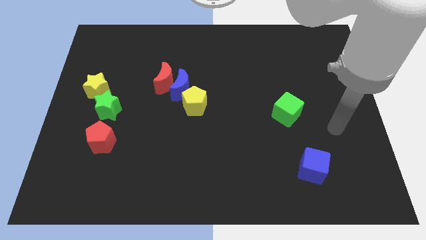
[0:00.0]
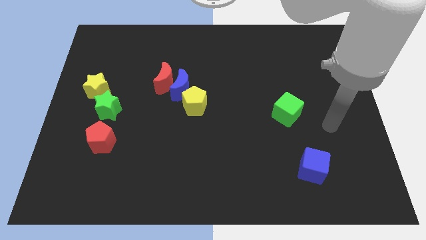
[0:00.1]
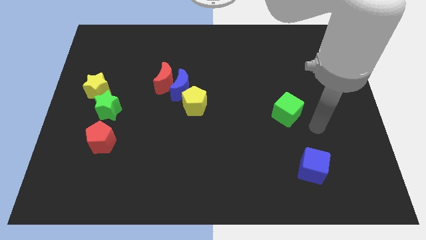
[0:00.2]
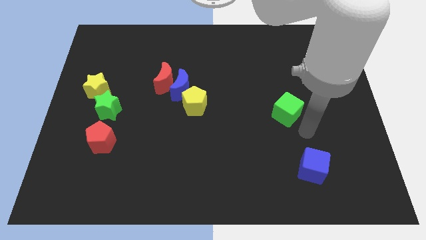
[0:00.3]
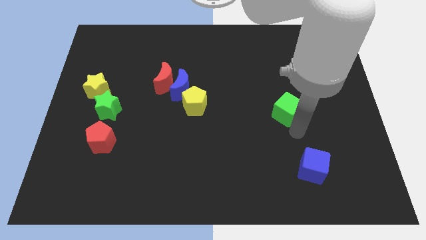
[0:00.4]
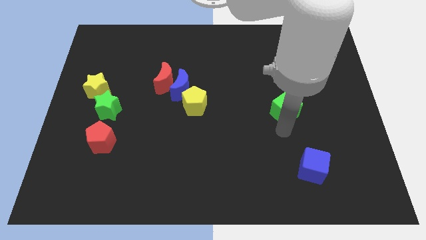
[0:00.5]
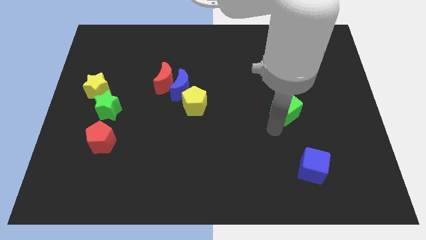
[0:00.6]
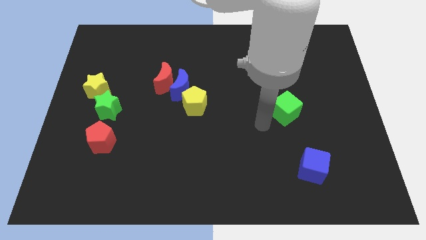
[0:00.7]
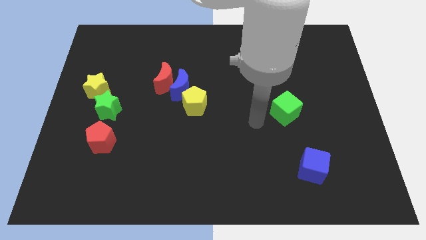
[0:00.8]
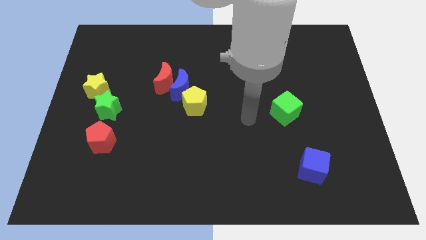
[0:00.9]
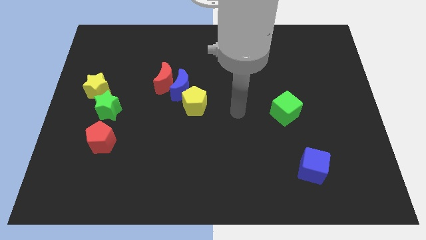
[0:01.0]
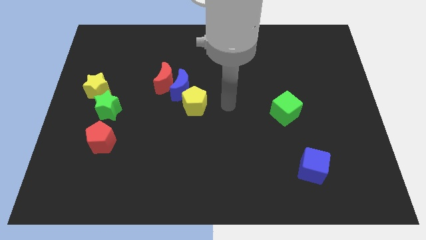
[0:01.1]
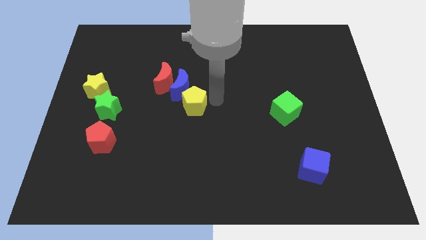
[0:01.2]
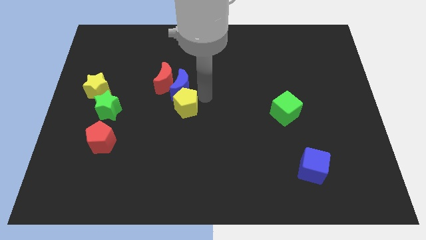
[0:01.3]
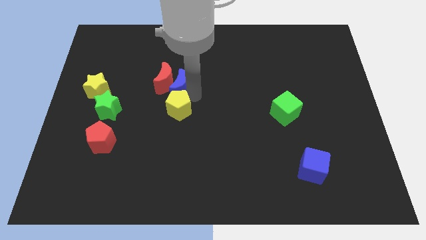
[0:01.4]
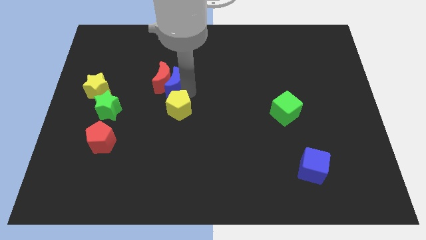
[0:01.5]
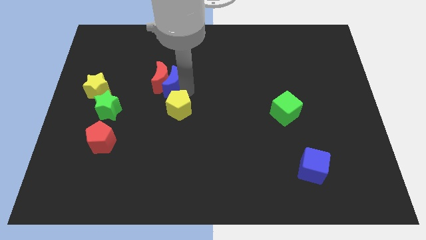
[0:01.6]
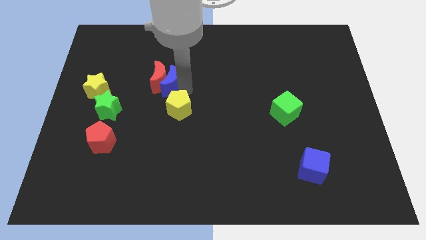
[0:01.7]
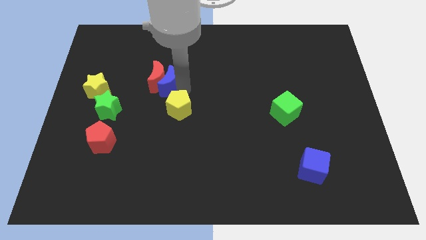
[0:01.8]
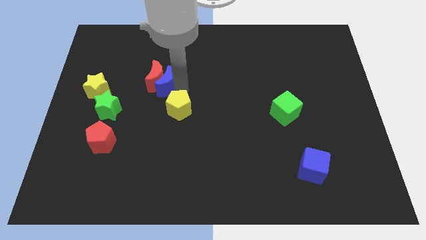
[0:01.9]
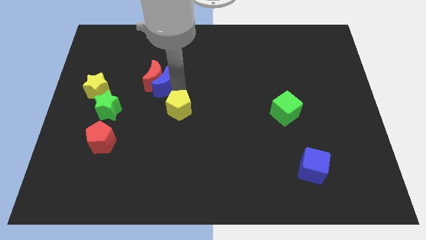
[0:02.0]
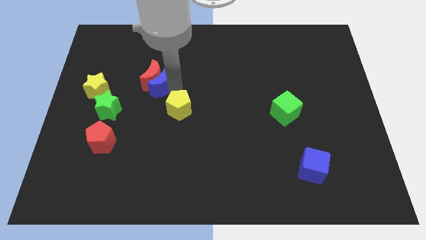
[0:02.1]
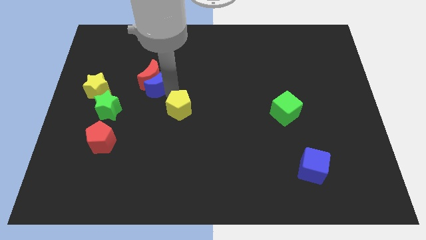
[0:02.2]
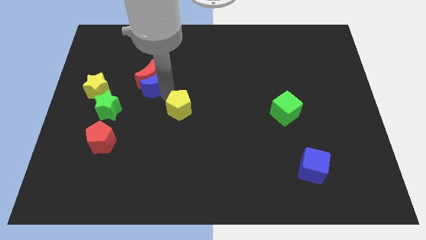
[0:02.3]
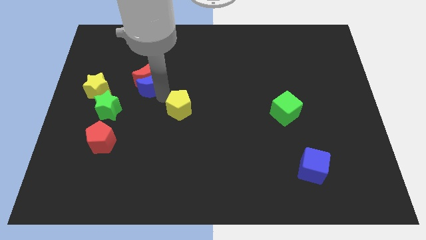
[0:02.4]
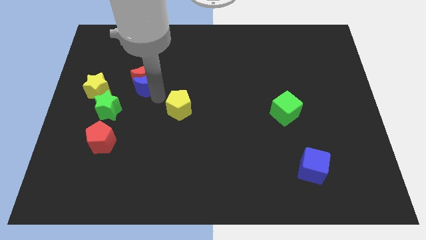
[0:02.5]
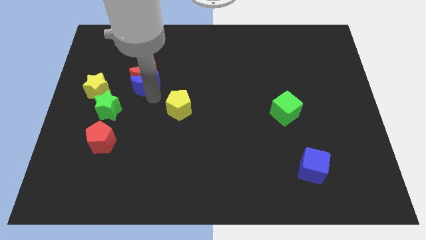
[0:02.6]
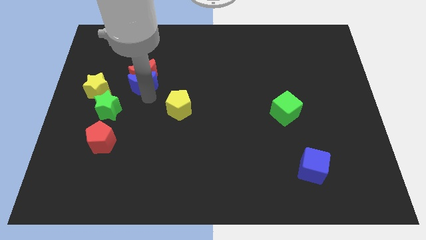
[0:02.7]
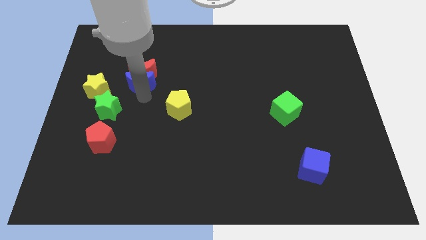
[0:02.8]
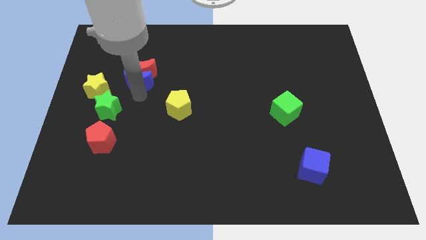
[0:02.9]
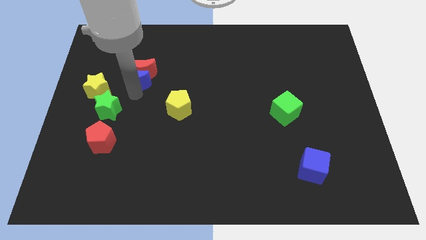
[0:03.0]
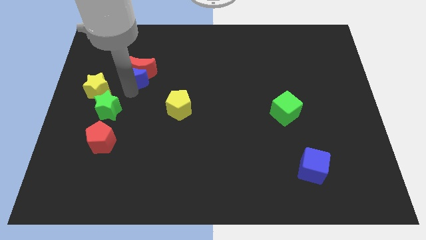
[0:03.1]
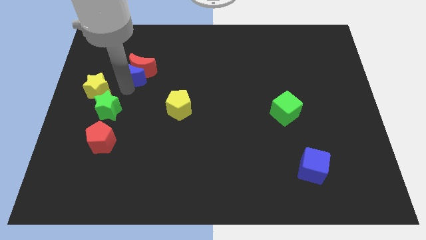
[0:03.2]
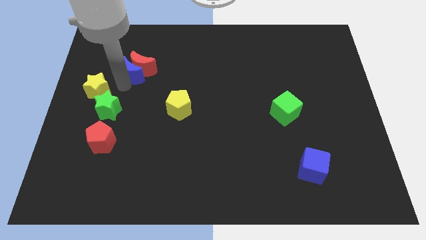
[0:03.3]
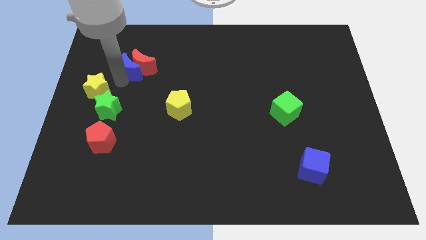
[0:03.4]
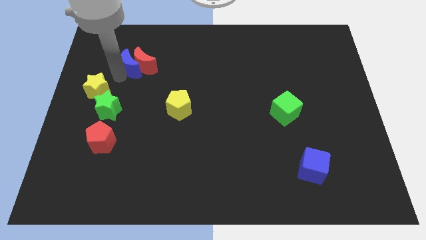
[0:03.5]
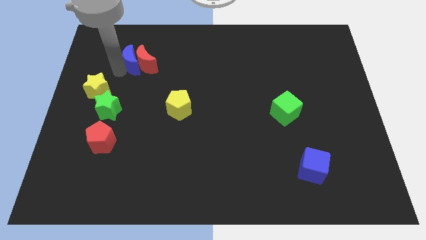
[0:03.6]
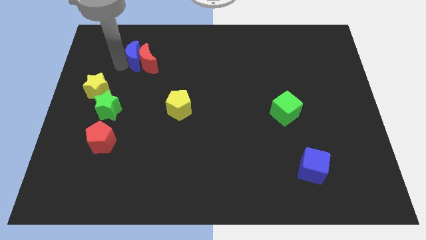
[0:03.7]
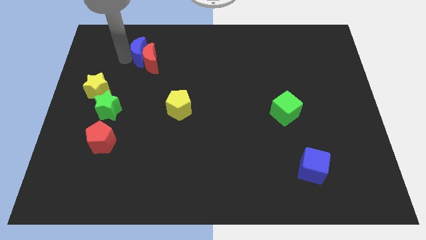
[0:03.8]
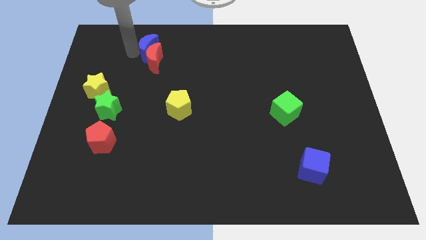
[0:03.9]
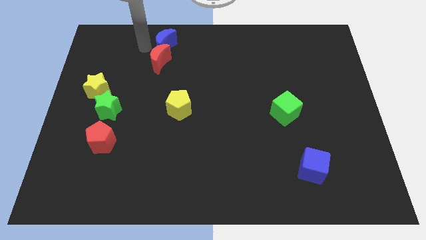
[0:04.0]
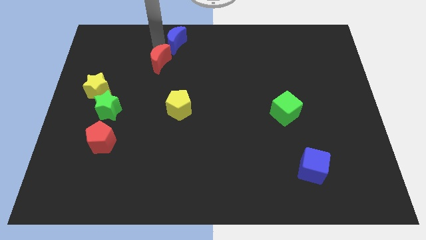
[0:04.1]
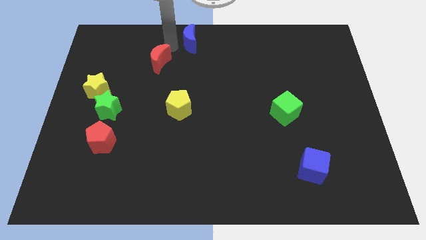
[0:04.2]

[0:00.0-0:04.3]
move the red moon away from the blue moon

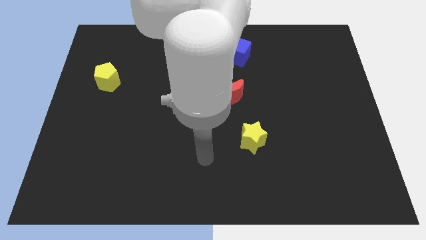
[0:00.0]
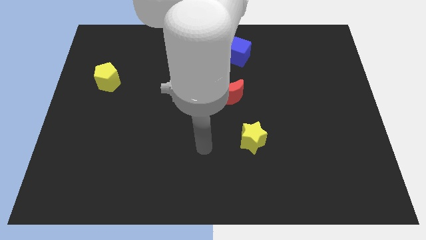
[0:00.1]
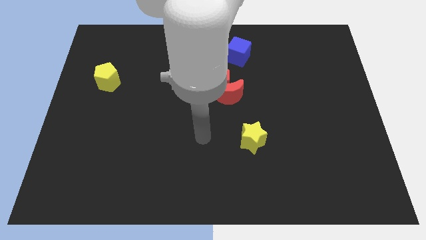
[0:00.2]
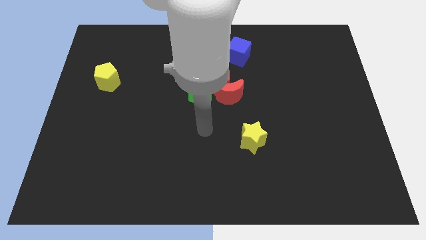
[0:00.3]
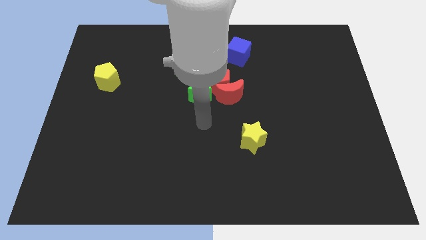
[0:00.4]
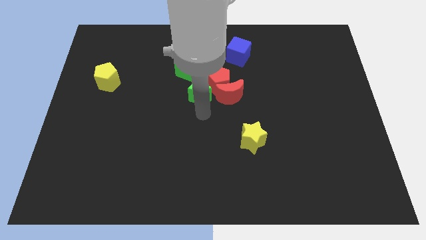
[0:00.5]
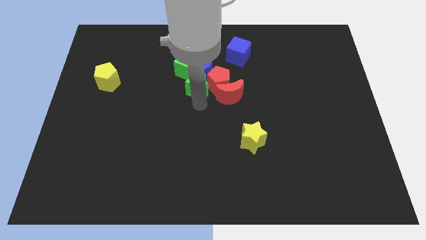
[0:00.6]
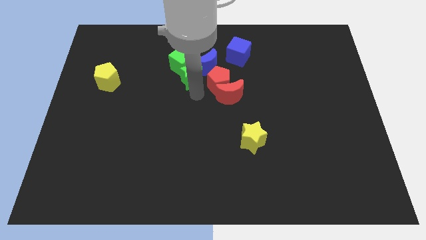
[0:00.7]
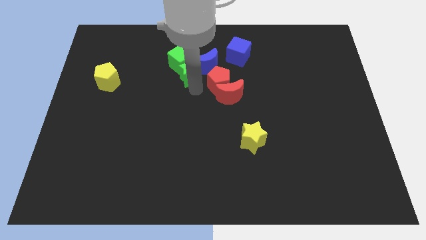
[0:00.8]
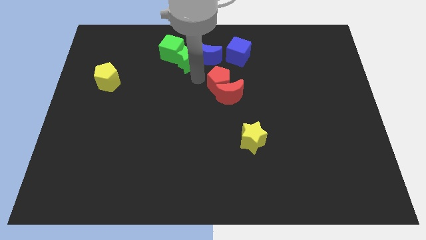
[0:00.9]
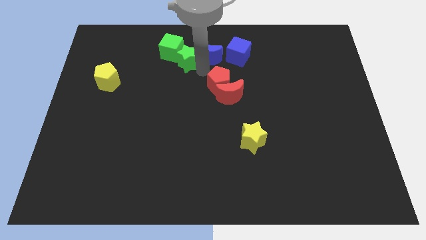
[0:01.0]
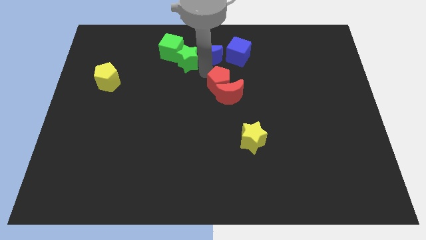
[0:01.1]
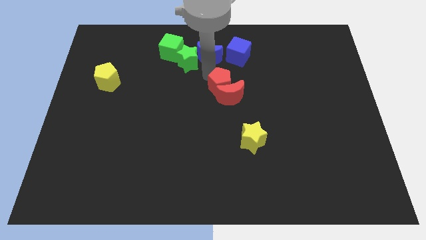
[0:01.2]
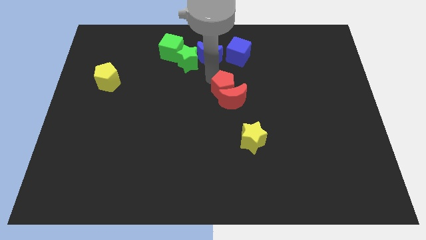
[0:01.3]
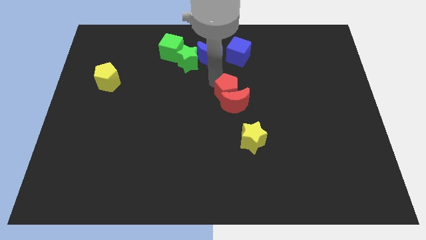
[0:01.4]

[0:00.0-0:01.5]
move the red pentagon away from the clump

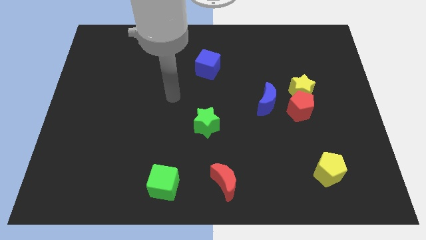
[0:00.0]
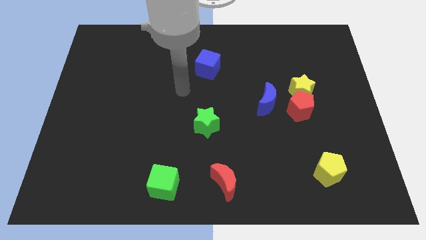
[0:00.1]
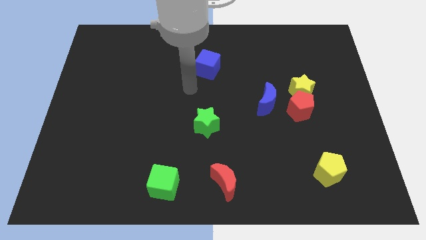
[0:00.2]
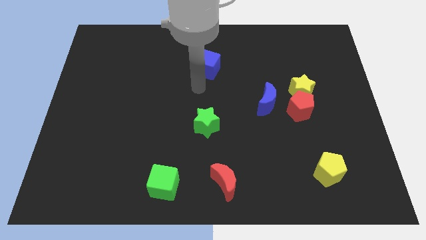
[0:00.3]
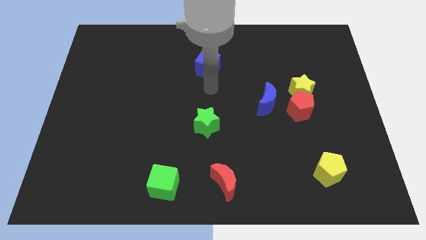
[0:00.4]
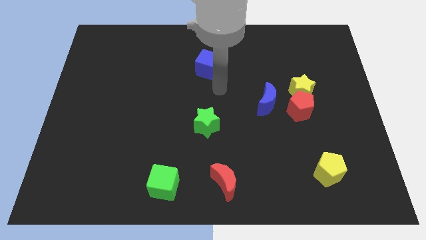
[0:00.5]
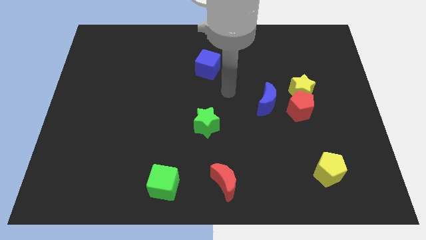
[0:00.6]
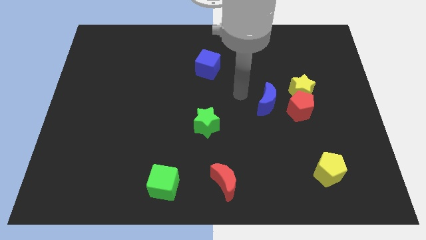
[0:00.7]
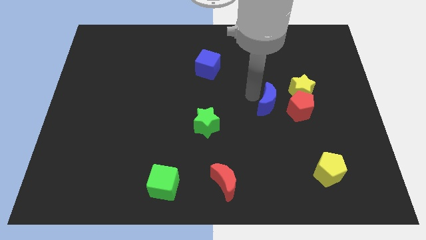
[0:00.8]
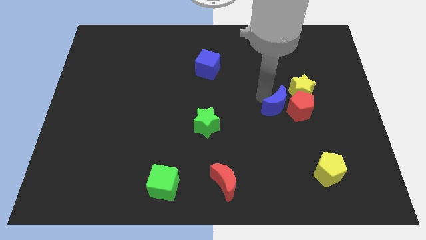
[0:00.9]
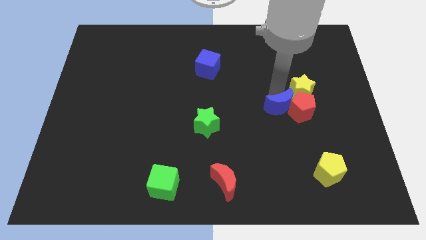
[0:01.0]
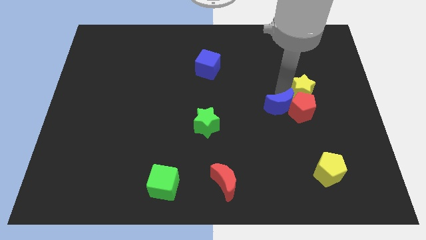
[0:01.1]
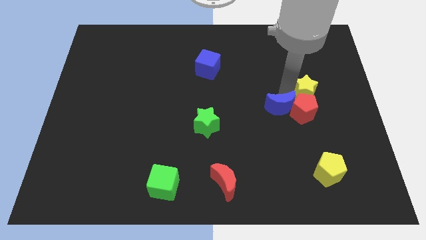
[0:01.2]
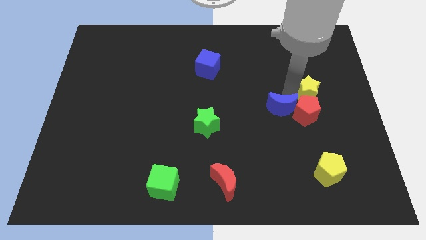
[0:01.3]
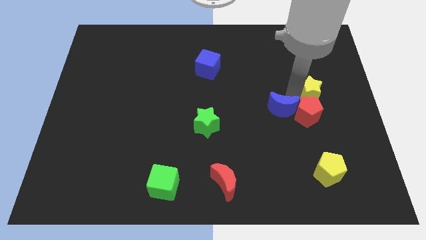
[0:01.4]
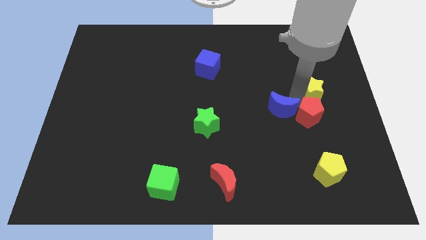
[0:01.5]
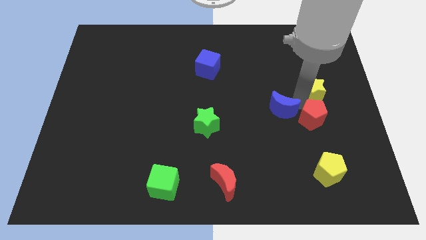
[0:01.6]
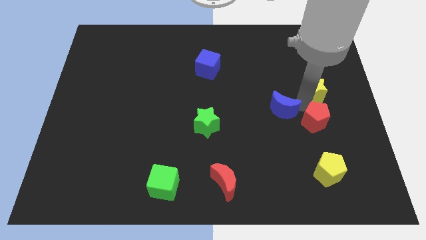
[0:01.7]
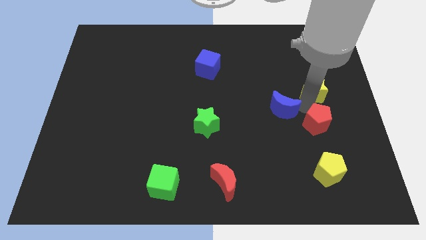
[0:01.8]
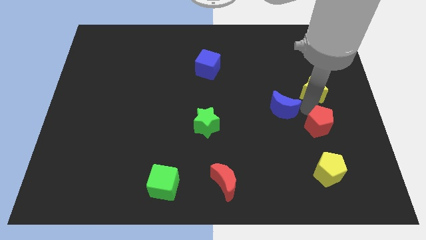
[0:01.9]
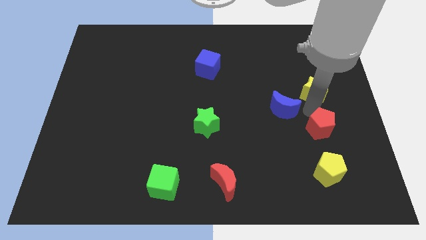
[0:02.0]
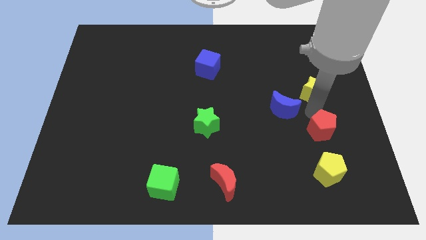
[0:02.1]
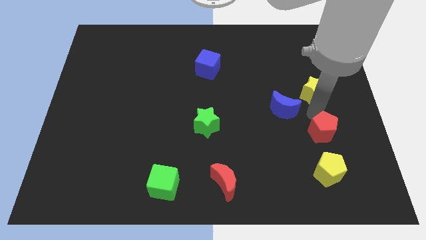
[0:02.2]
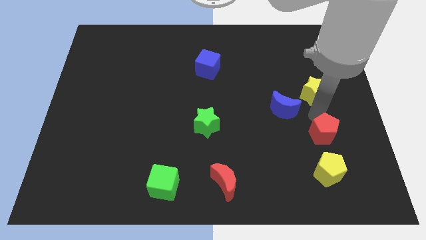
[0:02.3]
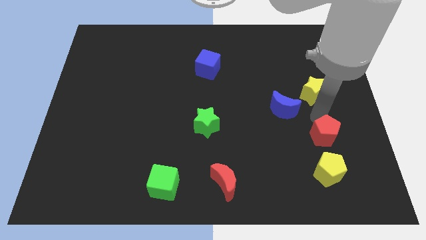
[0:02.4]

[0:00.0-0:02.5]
move the red pentagon away from the yellow star and blue moon

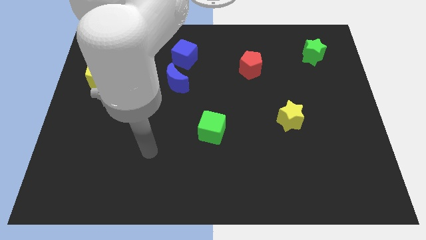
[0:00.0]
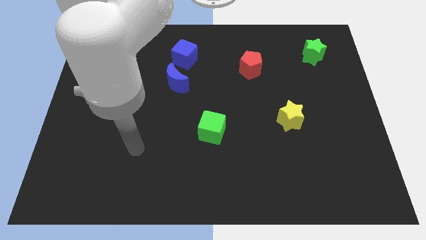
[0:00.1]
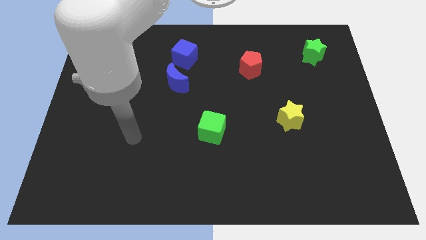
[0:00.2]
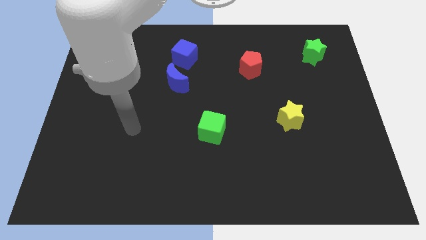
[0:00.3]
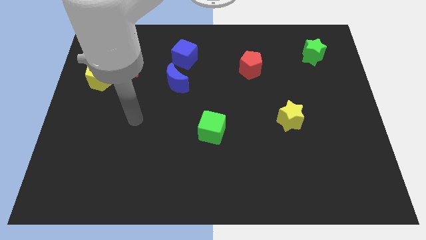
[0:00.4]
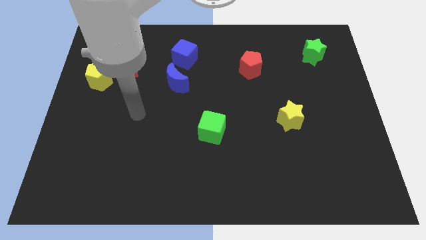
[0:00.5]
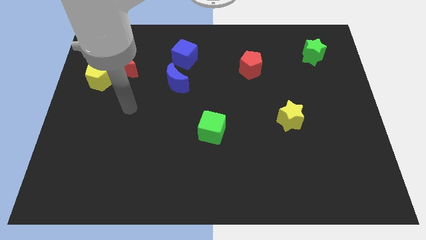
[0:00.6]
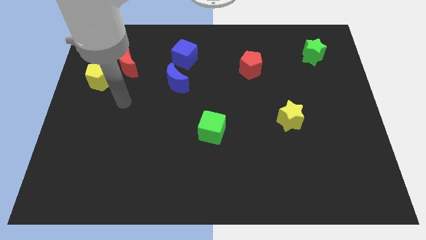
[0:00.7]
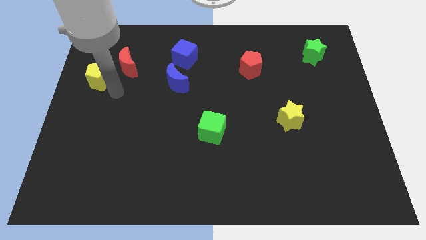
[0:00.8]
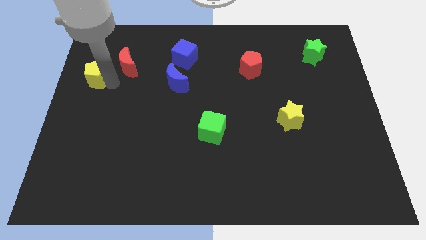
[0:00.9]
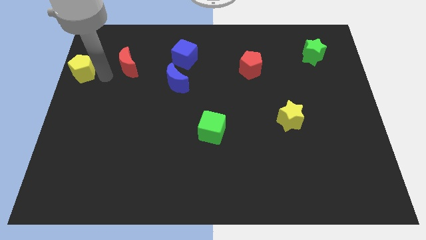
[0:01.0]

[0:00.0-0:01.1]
separate the red moon from the yellow pentagon
